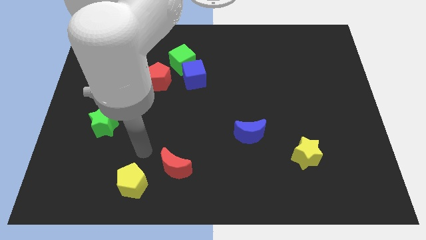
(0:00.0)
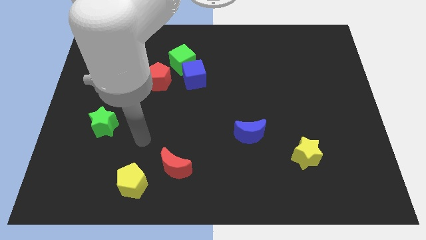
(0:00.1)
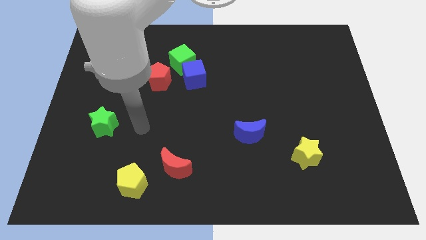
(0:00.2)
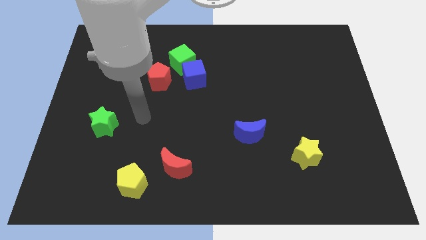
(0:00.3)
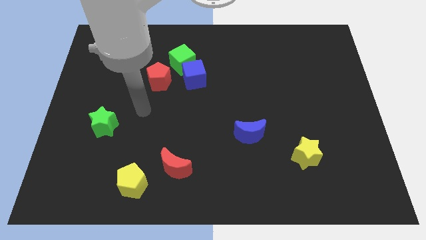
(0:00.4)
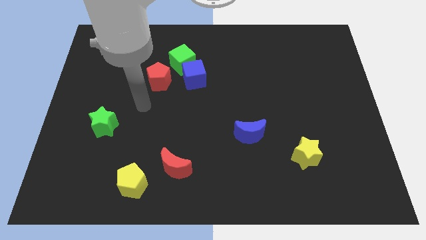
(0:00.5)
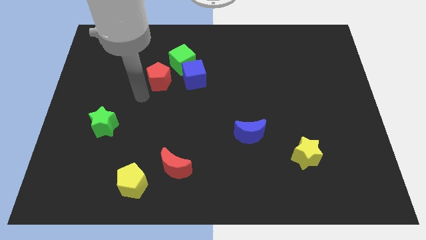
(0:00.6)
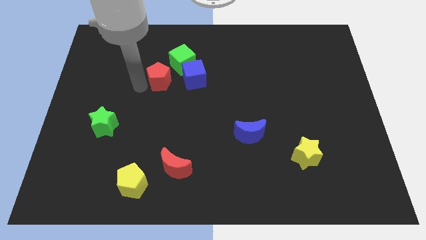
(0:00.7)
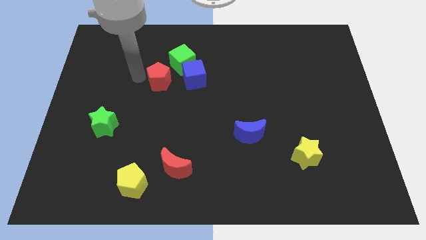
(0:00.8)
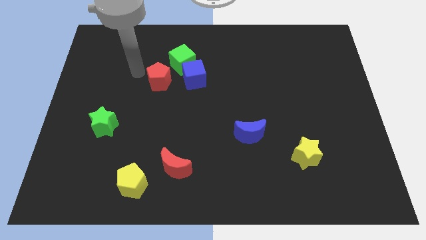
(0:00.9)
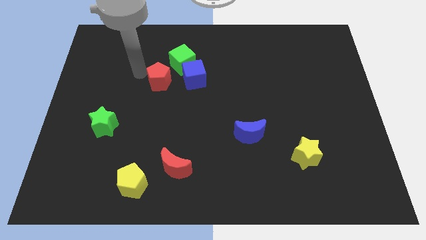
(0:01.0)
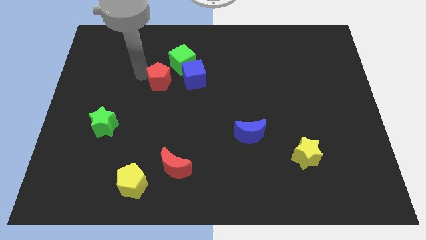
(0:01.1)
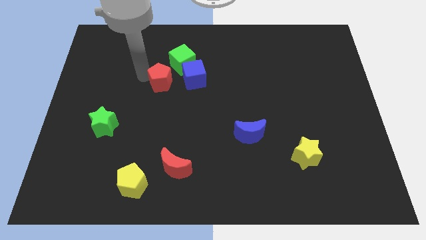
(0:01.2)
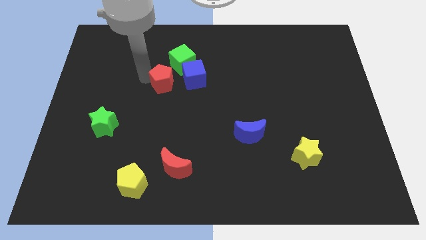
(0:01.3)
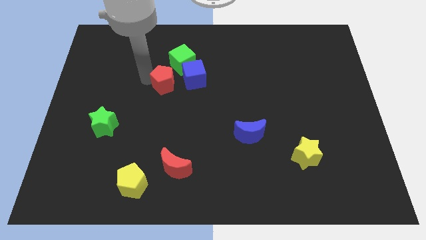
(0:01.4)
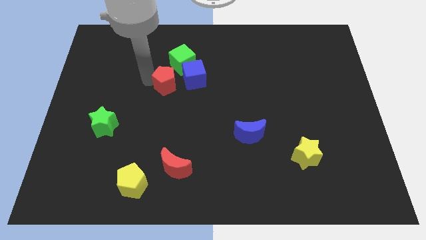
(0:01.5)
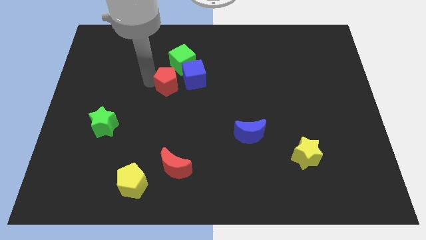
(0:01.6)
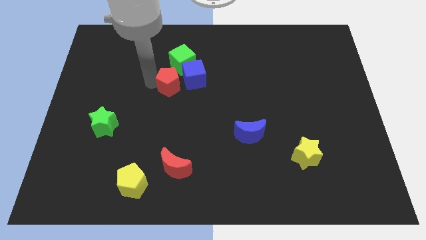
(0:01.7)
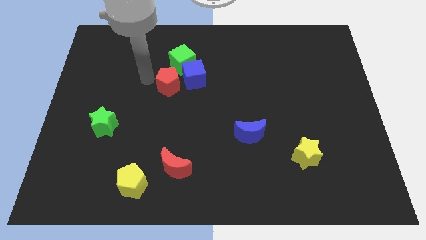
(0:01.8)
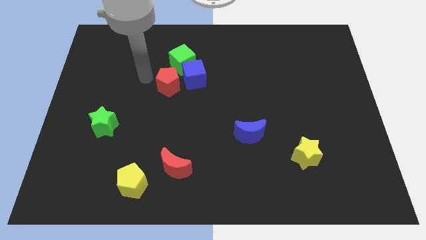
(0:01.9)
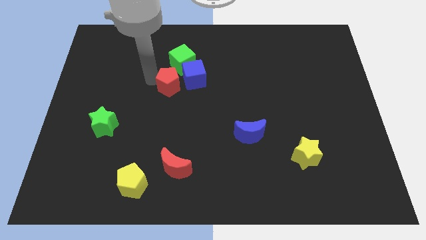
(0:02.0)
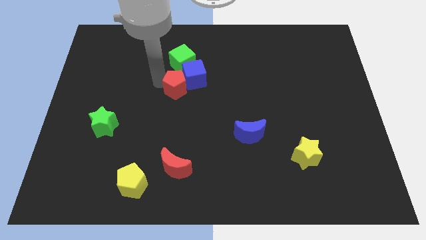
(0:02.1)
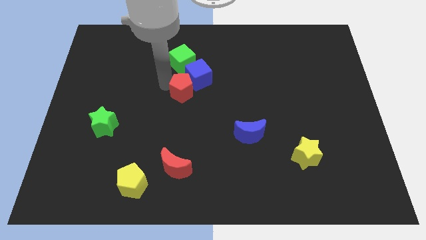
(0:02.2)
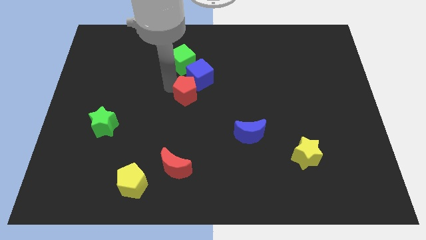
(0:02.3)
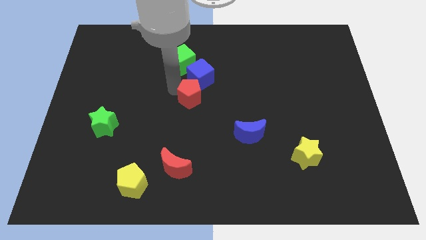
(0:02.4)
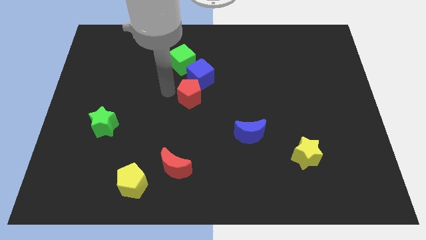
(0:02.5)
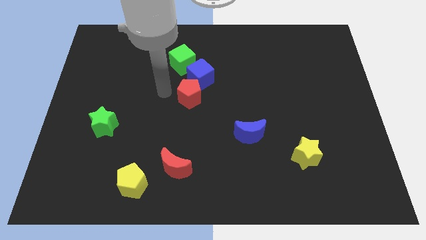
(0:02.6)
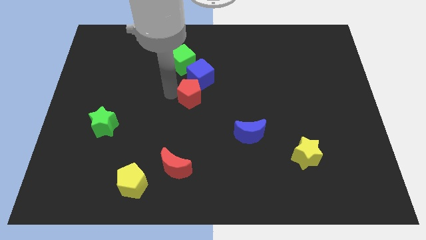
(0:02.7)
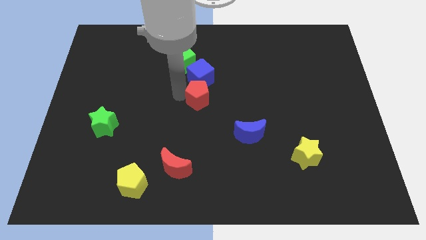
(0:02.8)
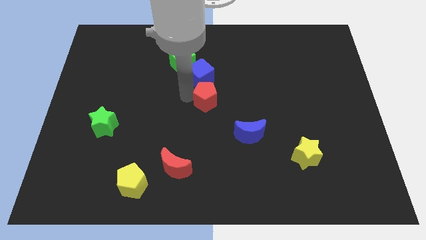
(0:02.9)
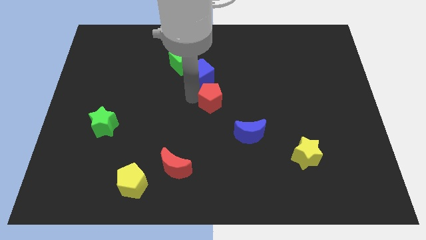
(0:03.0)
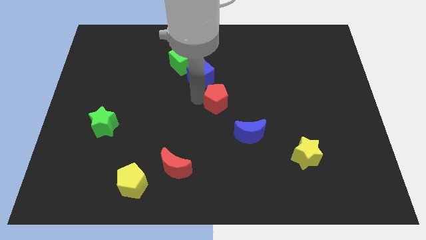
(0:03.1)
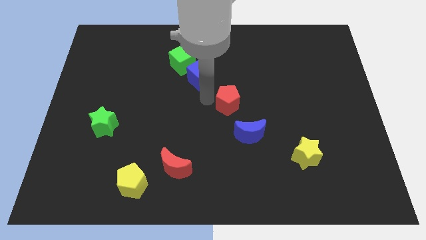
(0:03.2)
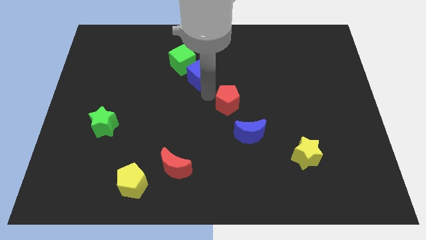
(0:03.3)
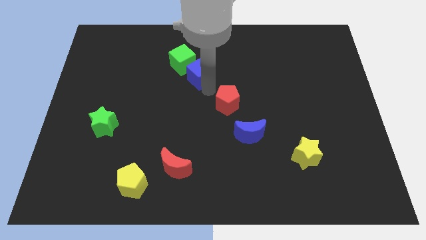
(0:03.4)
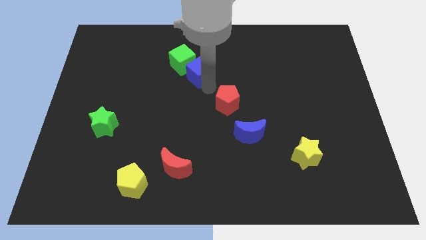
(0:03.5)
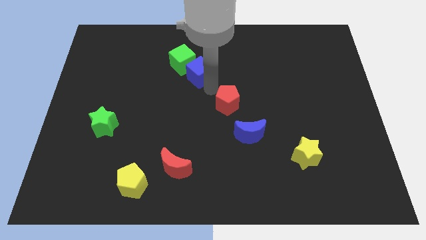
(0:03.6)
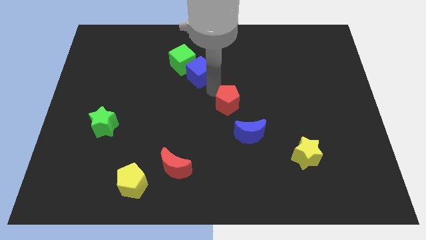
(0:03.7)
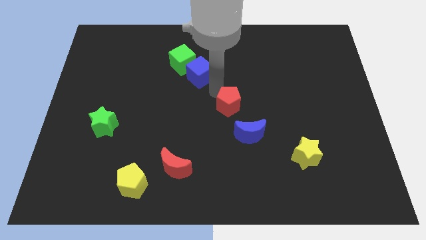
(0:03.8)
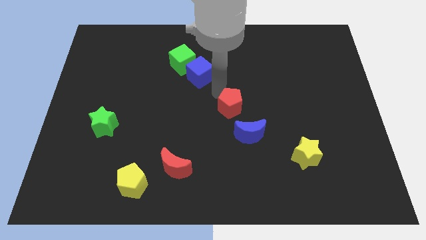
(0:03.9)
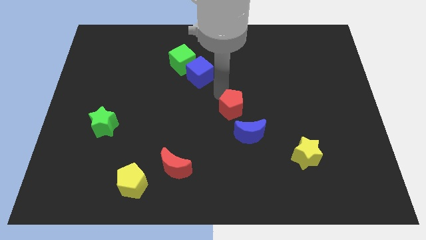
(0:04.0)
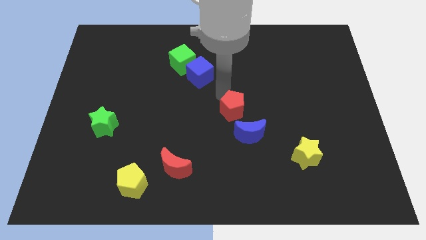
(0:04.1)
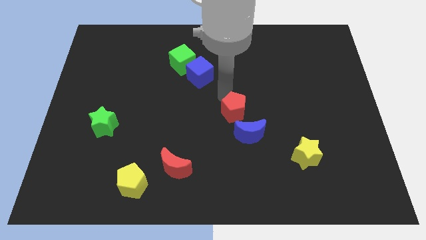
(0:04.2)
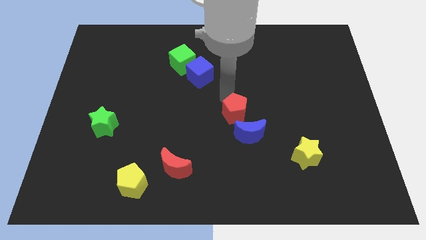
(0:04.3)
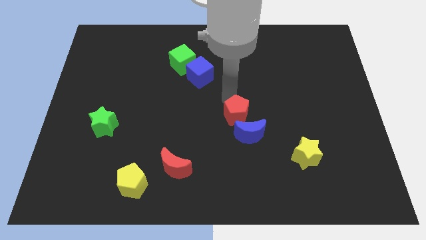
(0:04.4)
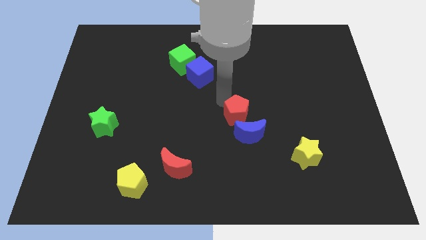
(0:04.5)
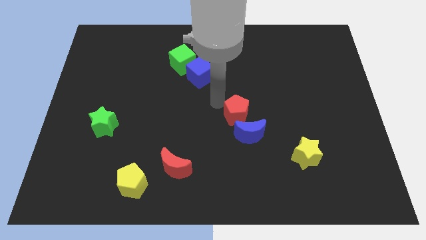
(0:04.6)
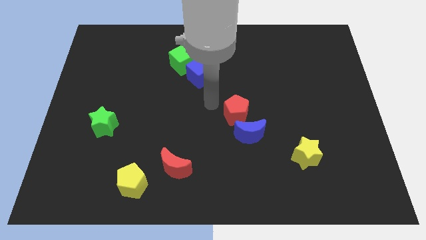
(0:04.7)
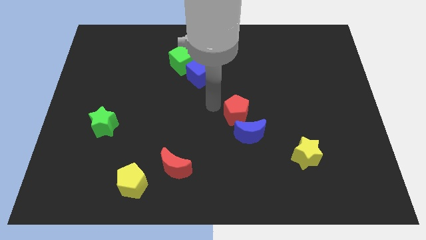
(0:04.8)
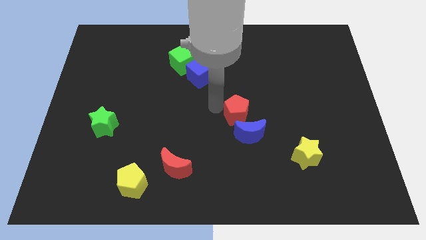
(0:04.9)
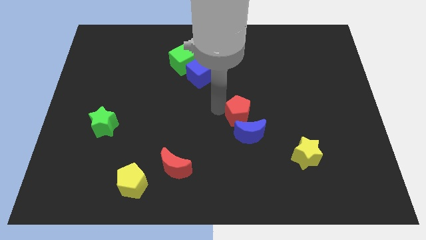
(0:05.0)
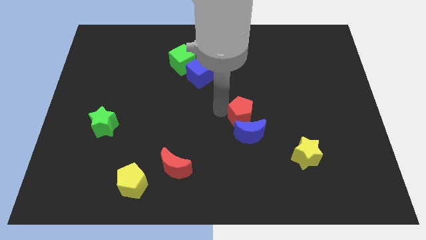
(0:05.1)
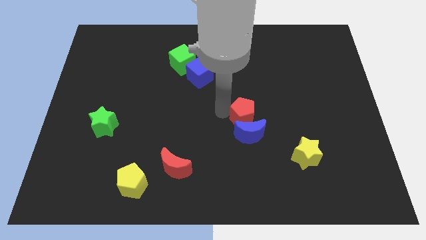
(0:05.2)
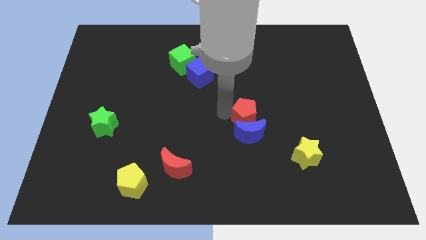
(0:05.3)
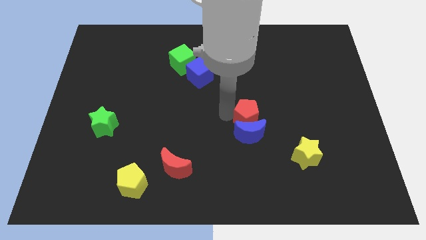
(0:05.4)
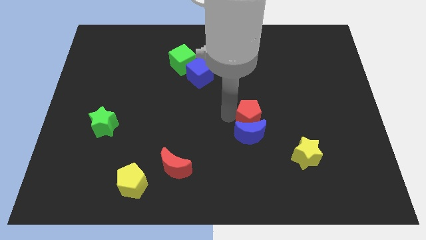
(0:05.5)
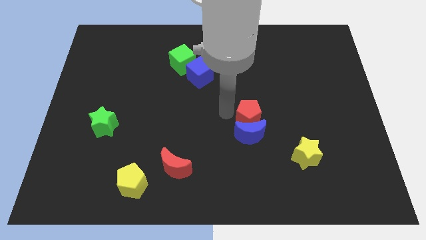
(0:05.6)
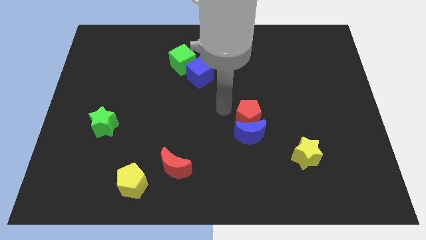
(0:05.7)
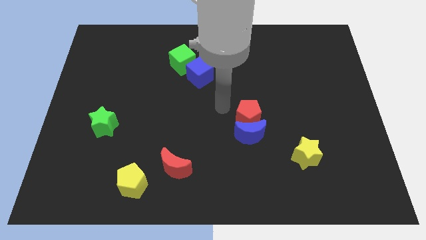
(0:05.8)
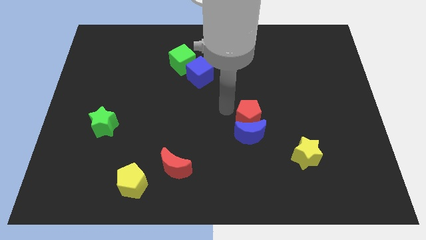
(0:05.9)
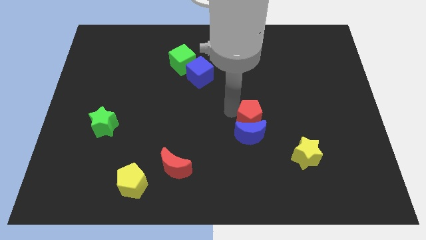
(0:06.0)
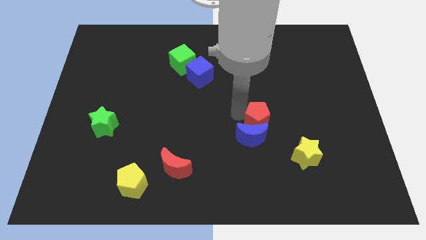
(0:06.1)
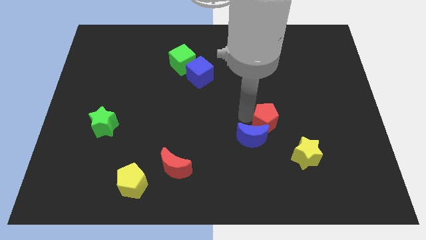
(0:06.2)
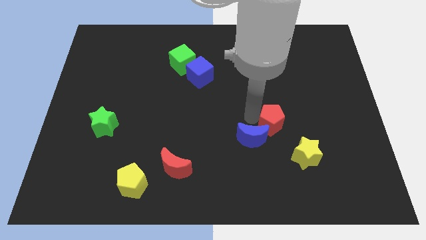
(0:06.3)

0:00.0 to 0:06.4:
push the red pentagon to the right of the blue moon

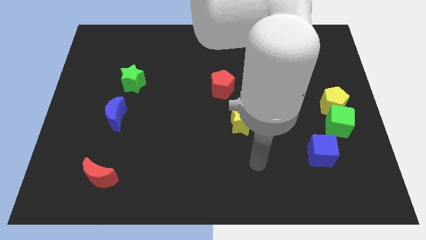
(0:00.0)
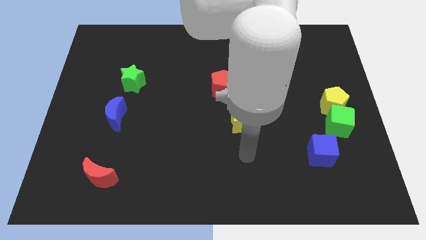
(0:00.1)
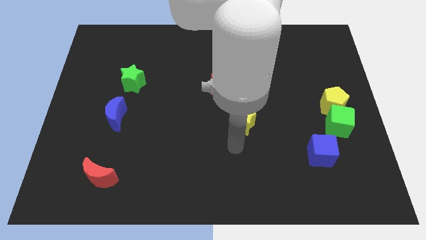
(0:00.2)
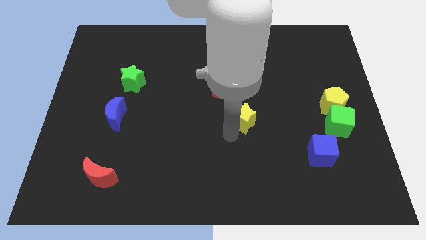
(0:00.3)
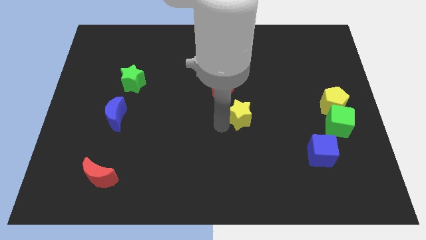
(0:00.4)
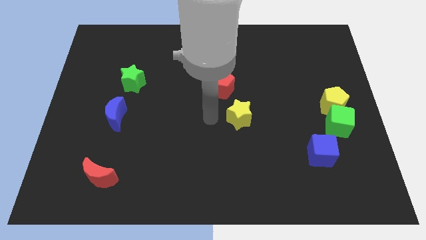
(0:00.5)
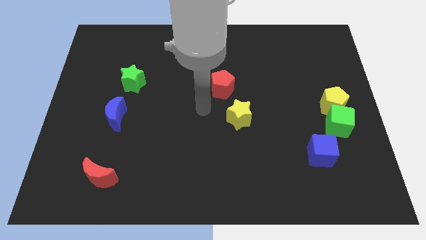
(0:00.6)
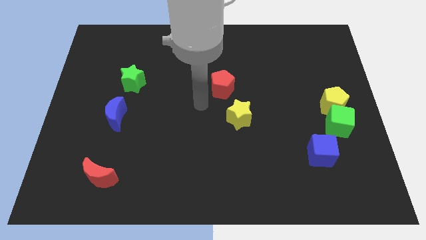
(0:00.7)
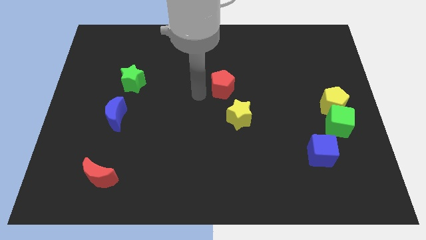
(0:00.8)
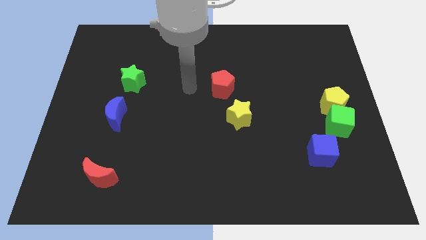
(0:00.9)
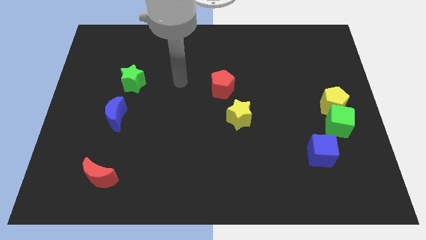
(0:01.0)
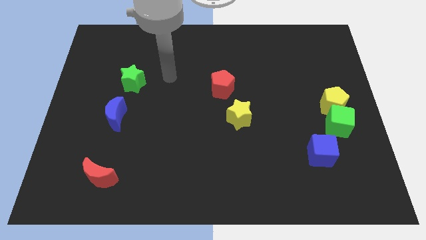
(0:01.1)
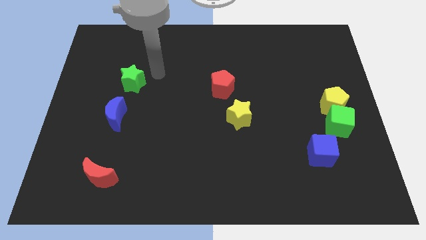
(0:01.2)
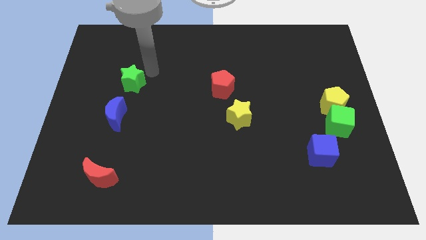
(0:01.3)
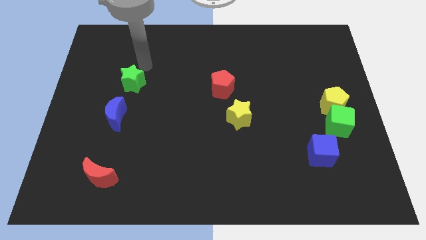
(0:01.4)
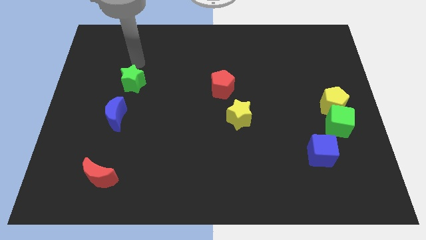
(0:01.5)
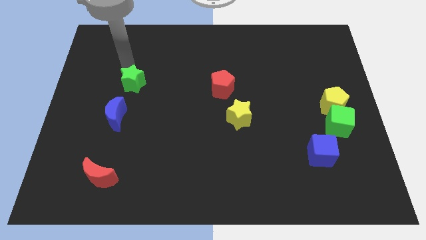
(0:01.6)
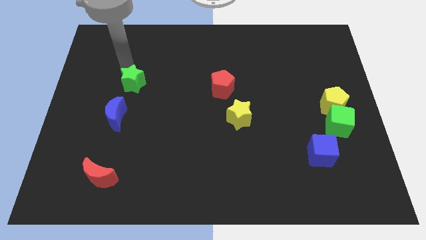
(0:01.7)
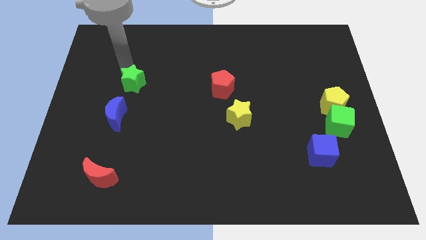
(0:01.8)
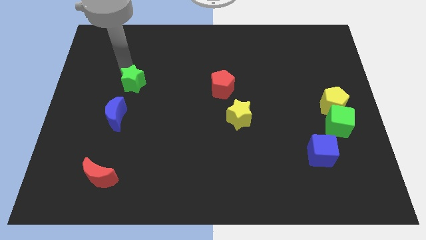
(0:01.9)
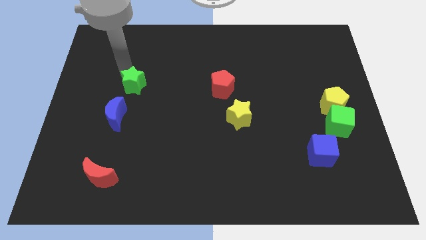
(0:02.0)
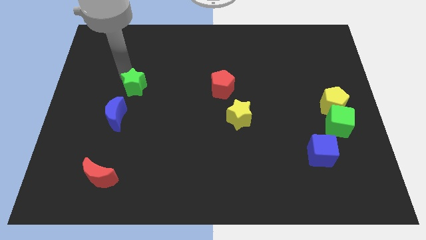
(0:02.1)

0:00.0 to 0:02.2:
slide the green star to the top right of the blue moon
